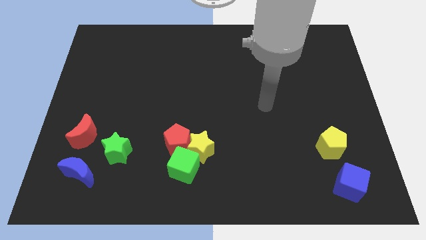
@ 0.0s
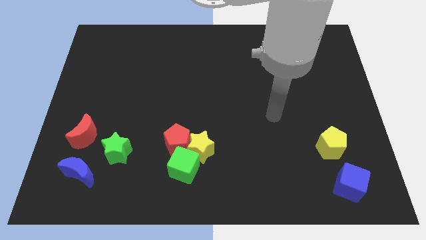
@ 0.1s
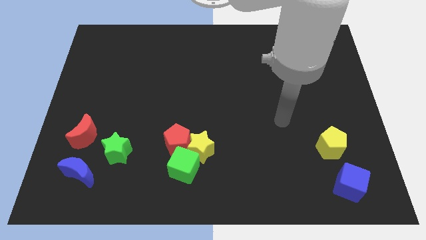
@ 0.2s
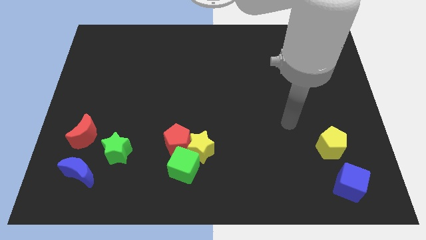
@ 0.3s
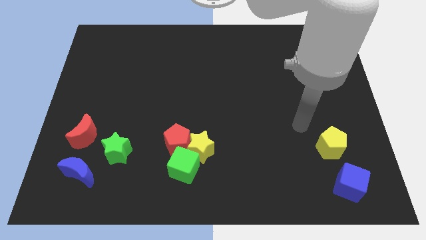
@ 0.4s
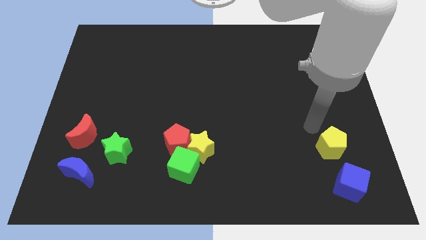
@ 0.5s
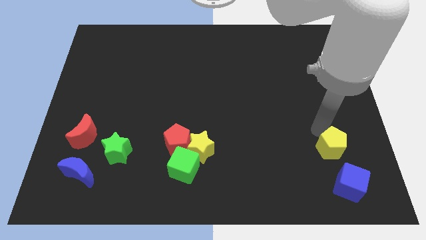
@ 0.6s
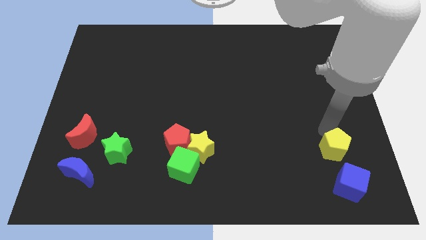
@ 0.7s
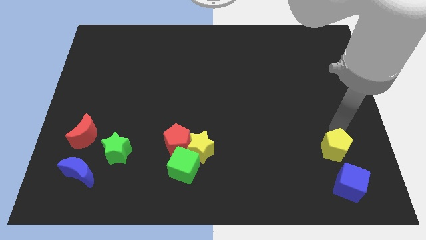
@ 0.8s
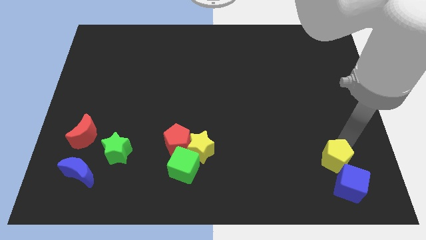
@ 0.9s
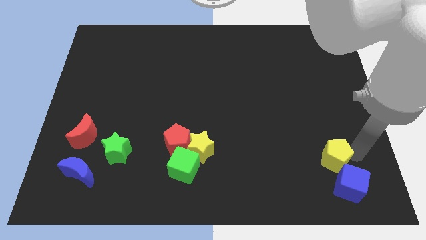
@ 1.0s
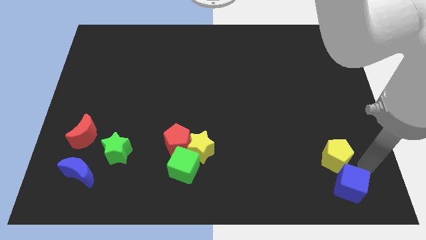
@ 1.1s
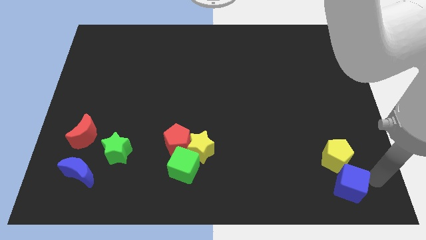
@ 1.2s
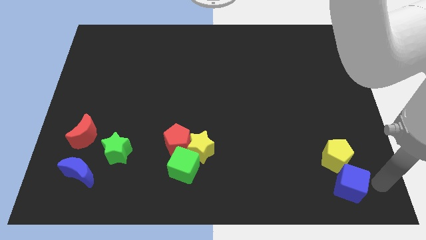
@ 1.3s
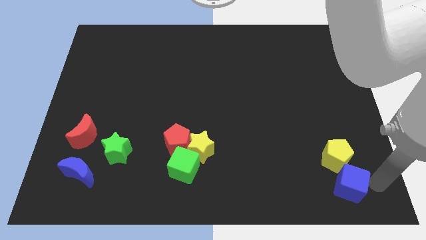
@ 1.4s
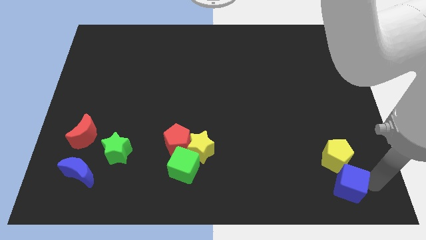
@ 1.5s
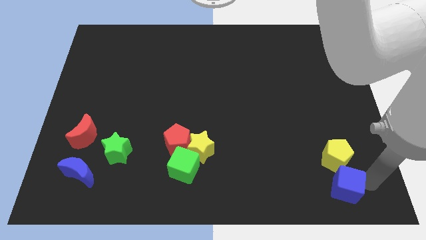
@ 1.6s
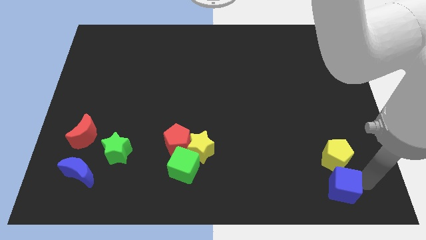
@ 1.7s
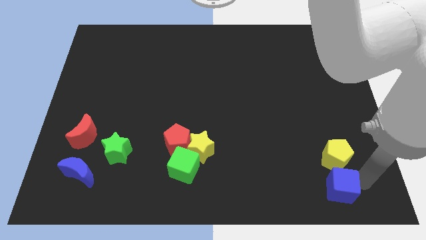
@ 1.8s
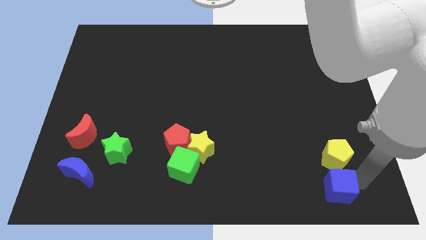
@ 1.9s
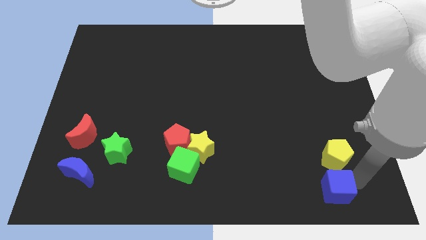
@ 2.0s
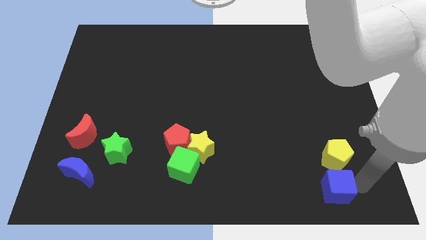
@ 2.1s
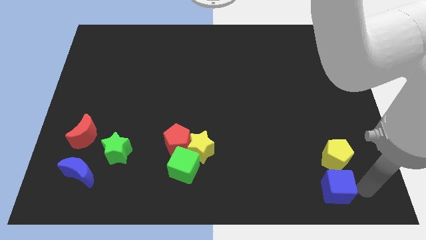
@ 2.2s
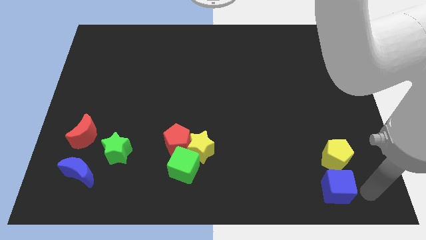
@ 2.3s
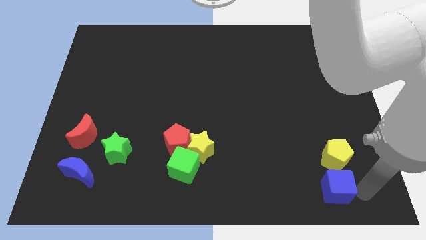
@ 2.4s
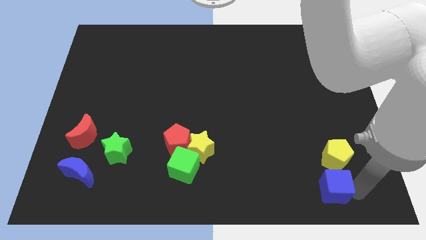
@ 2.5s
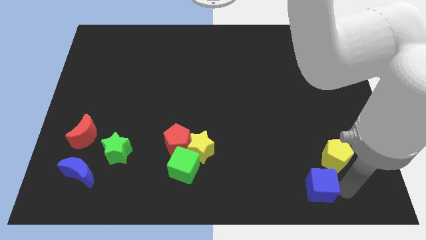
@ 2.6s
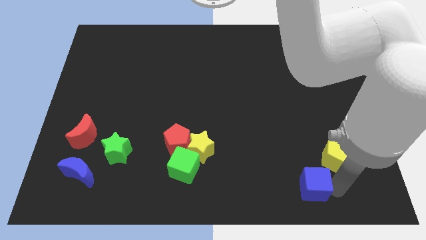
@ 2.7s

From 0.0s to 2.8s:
slide the blue cube a bit left

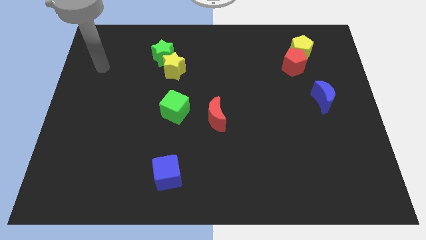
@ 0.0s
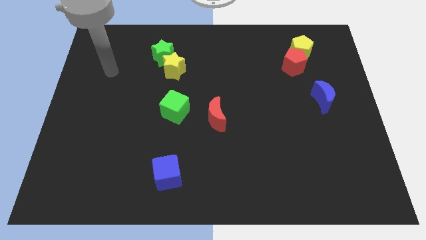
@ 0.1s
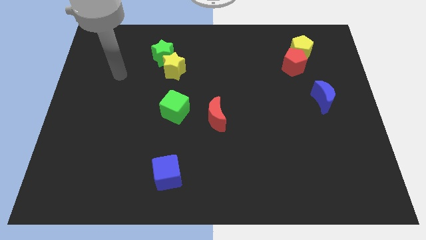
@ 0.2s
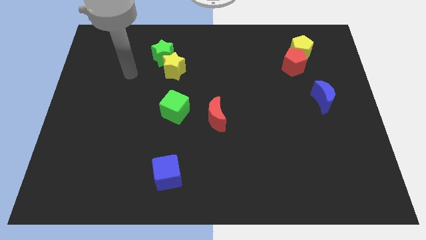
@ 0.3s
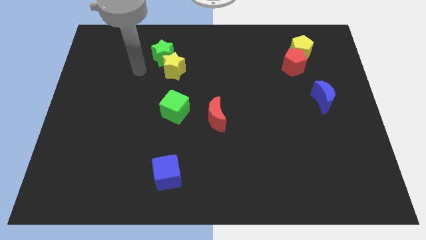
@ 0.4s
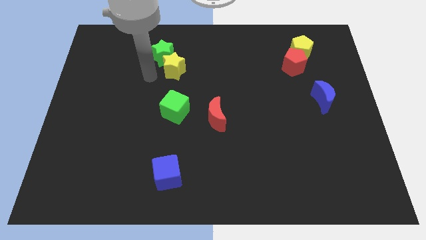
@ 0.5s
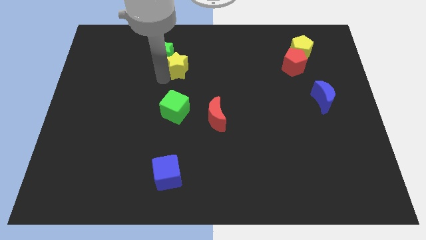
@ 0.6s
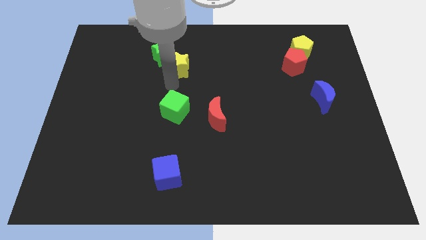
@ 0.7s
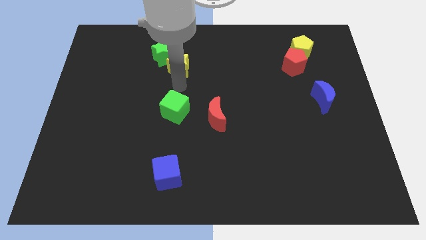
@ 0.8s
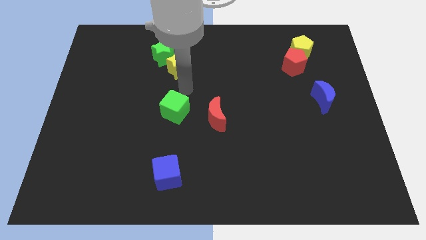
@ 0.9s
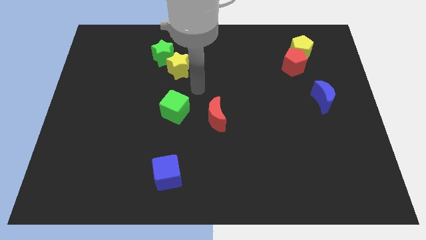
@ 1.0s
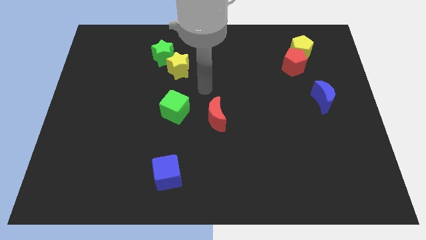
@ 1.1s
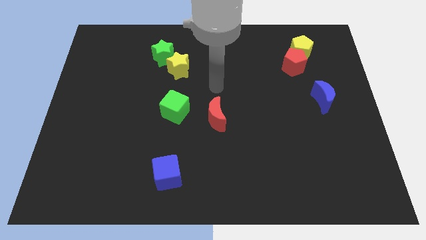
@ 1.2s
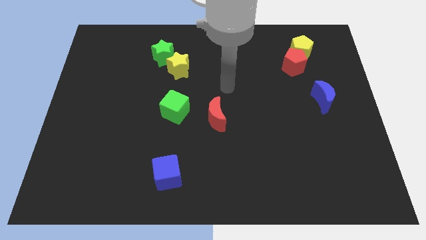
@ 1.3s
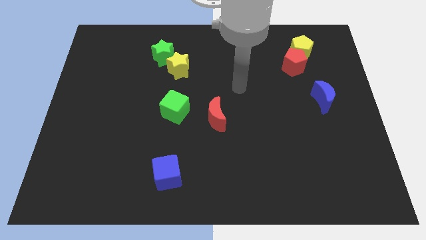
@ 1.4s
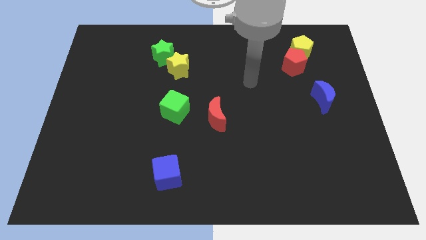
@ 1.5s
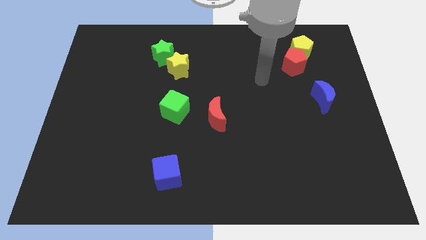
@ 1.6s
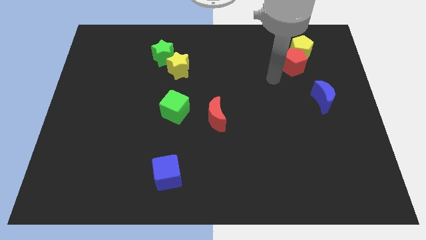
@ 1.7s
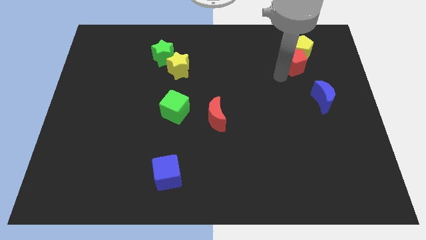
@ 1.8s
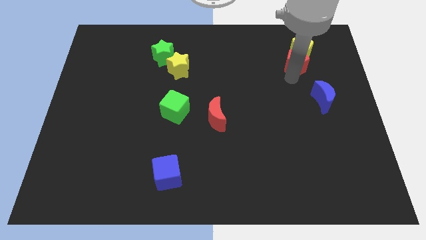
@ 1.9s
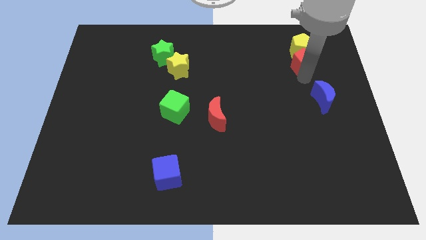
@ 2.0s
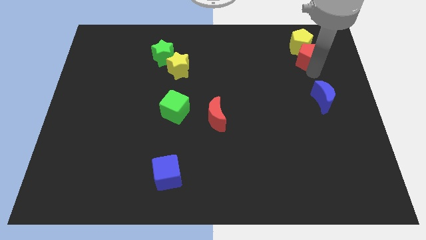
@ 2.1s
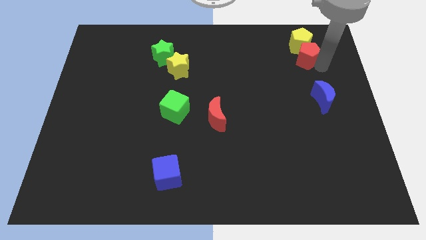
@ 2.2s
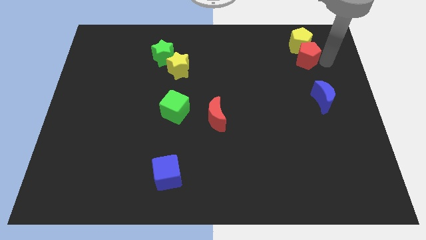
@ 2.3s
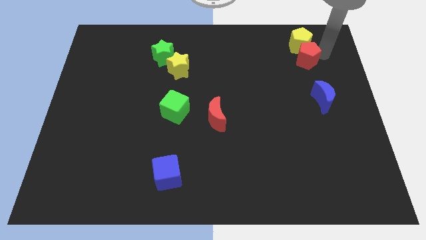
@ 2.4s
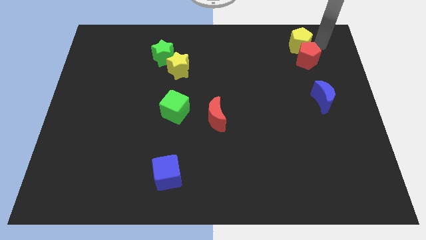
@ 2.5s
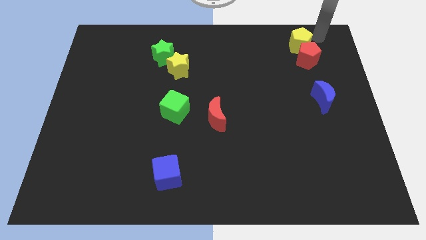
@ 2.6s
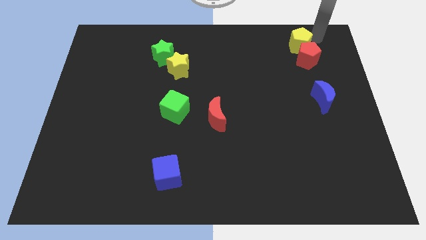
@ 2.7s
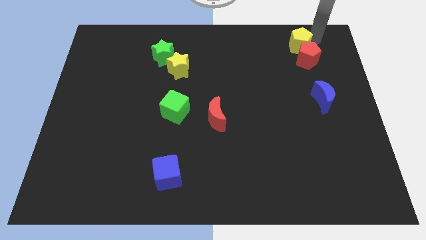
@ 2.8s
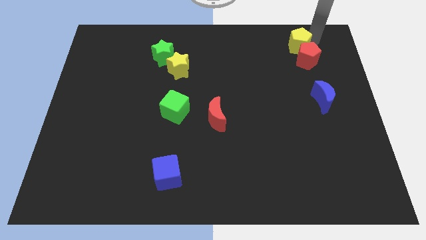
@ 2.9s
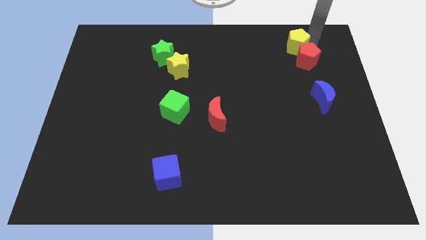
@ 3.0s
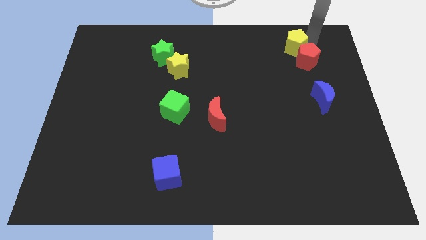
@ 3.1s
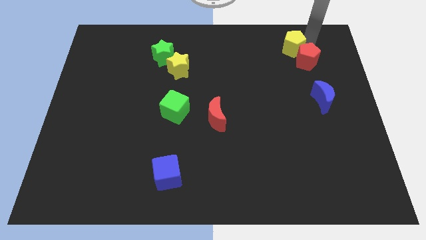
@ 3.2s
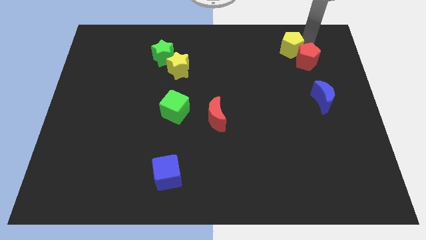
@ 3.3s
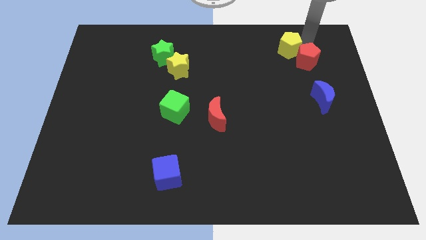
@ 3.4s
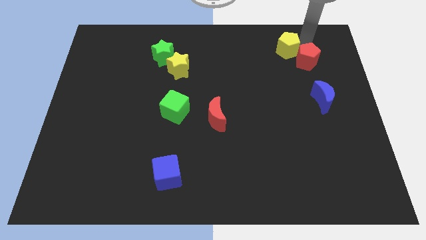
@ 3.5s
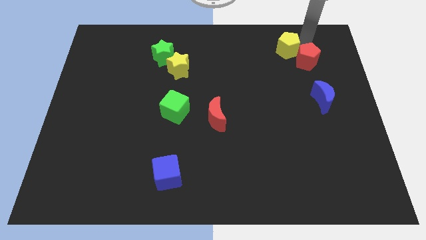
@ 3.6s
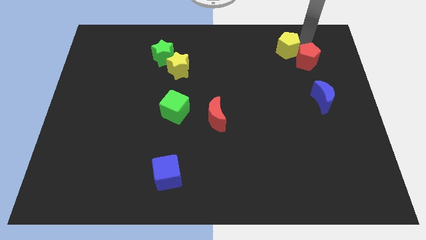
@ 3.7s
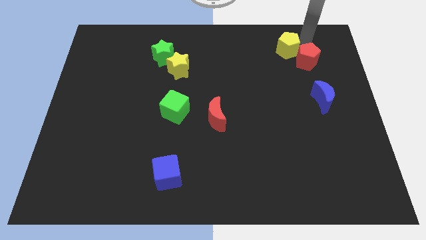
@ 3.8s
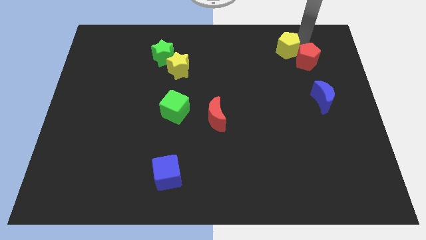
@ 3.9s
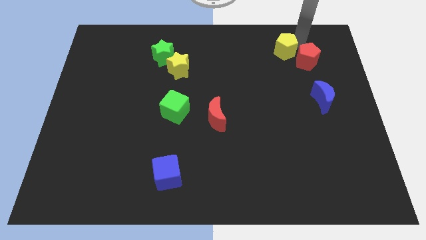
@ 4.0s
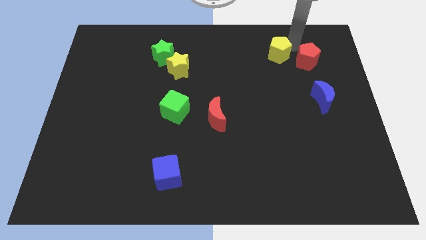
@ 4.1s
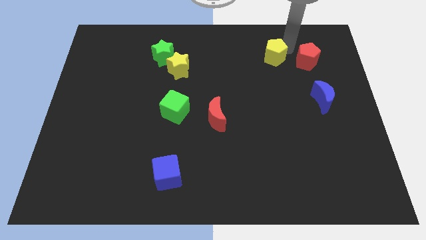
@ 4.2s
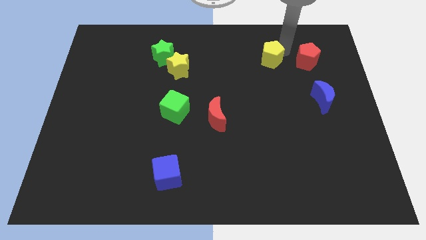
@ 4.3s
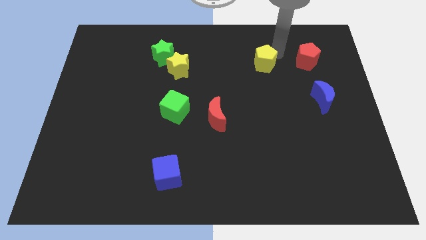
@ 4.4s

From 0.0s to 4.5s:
slide the yellow pentagon down and then left slightly

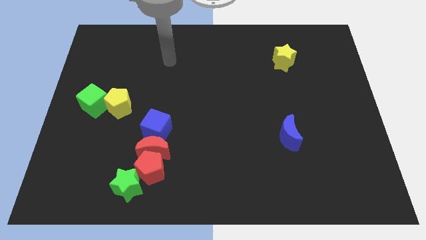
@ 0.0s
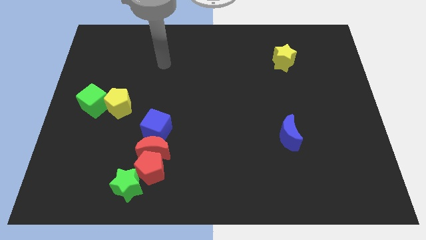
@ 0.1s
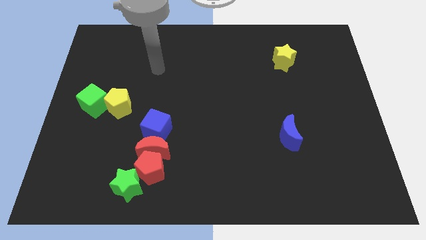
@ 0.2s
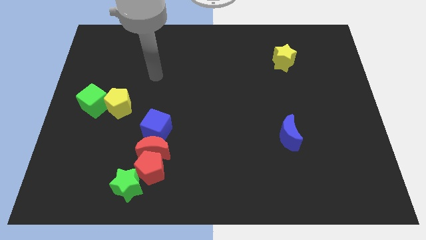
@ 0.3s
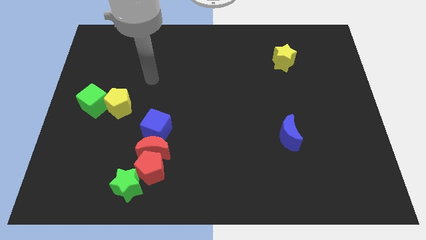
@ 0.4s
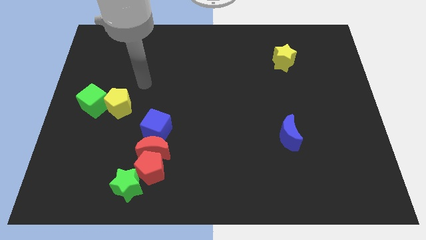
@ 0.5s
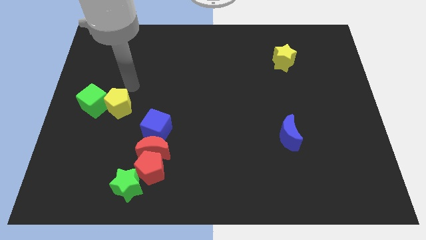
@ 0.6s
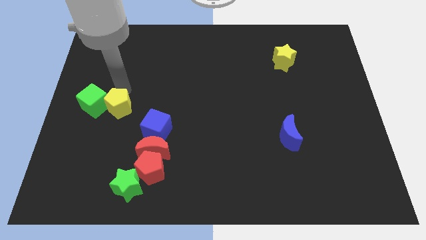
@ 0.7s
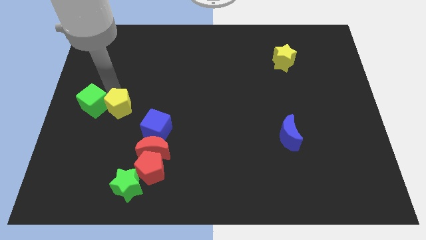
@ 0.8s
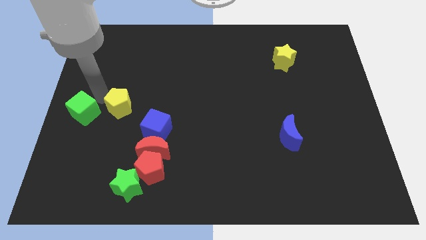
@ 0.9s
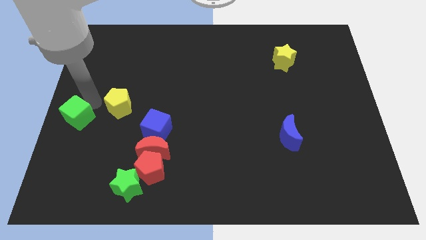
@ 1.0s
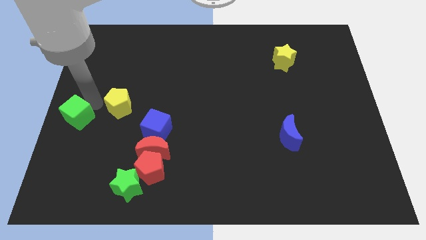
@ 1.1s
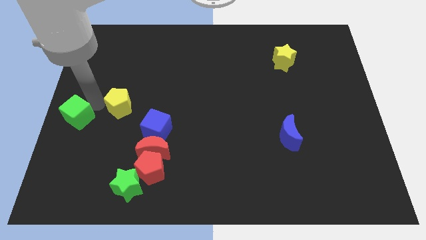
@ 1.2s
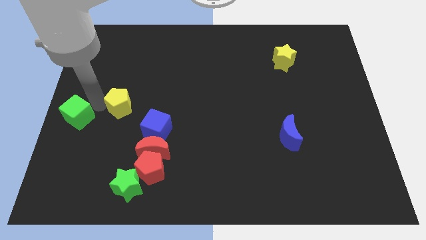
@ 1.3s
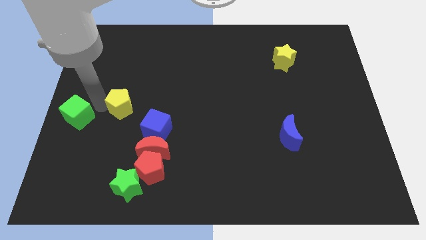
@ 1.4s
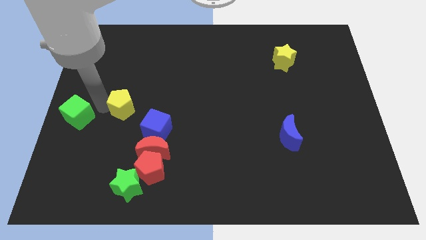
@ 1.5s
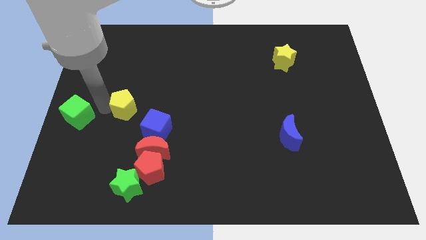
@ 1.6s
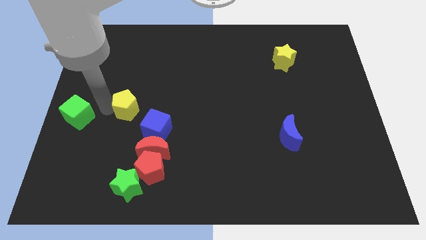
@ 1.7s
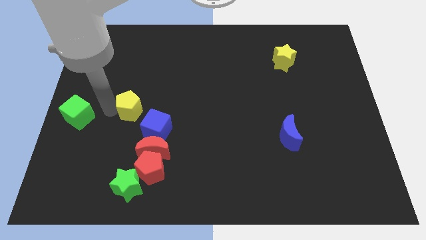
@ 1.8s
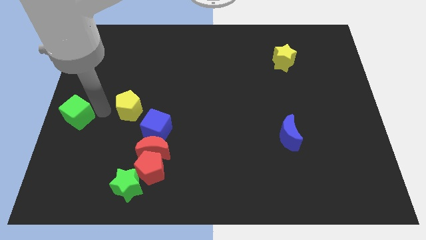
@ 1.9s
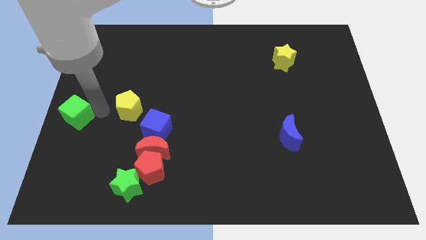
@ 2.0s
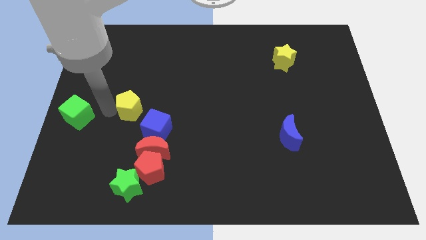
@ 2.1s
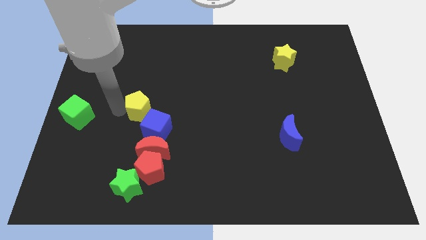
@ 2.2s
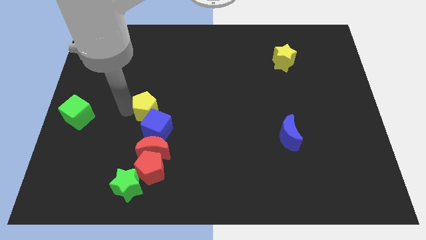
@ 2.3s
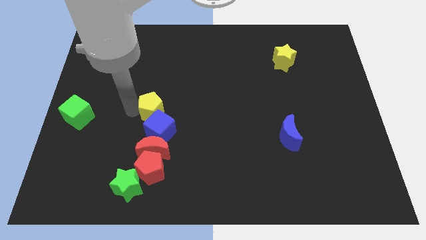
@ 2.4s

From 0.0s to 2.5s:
move the yellow pentagon a bit to the right
